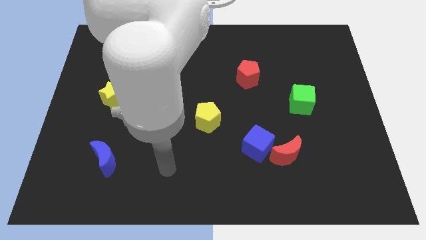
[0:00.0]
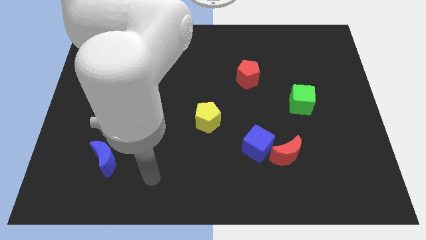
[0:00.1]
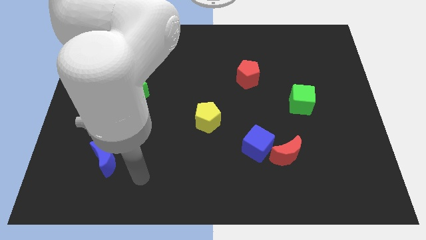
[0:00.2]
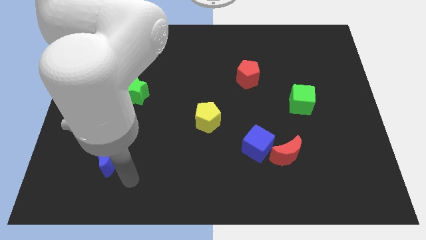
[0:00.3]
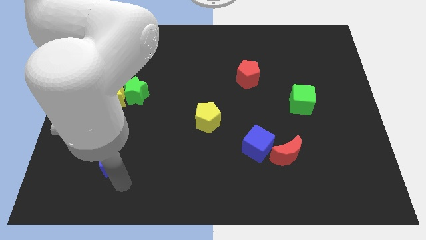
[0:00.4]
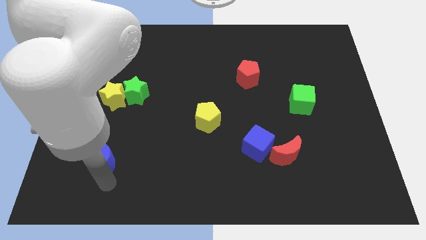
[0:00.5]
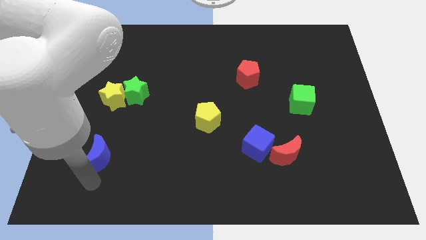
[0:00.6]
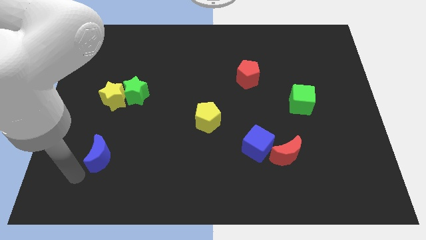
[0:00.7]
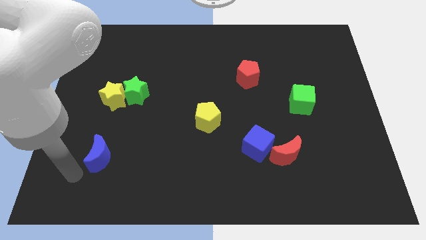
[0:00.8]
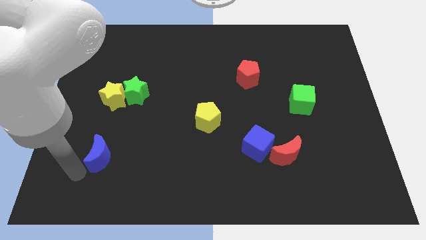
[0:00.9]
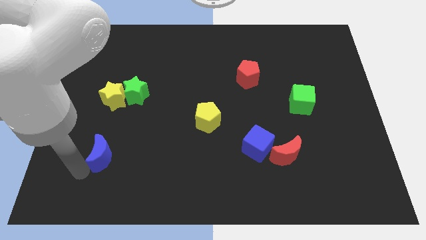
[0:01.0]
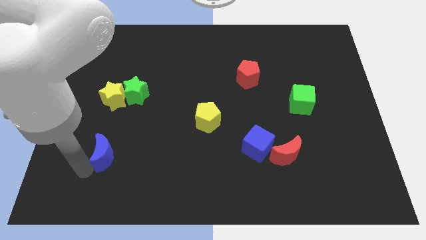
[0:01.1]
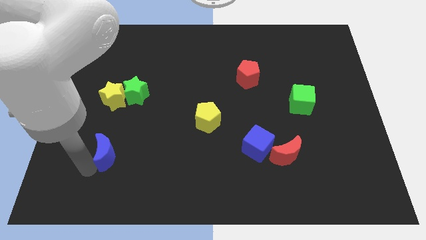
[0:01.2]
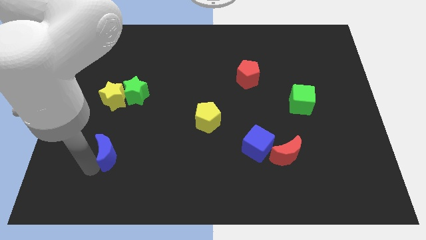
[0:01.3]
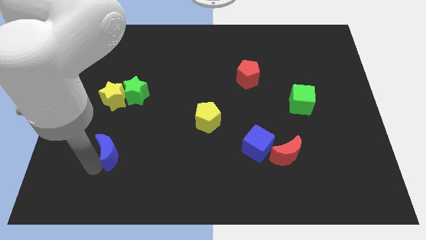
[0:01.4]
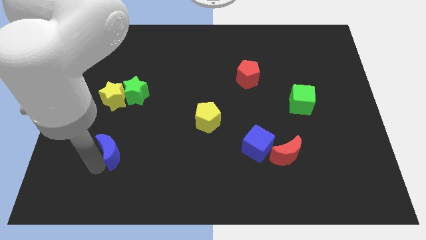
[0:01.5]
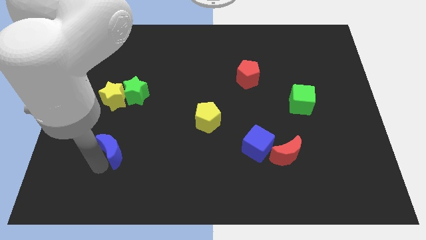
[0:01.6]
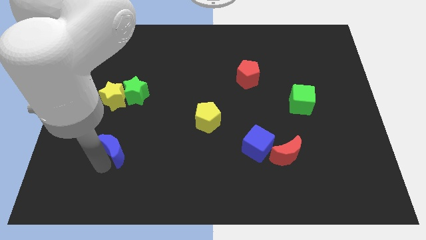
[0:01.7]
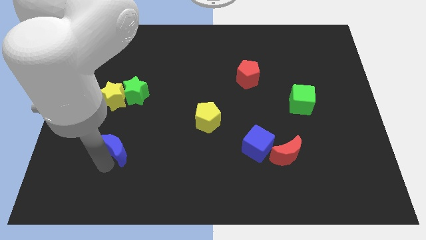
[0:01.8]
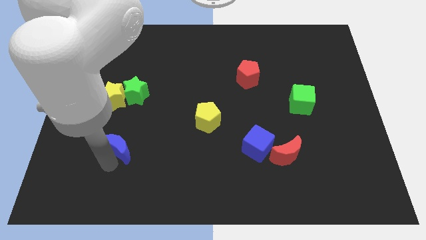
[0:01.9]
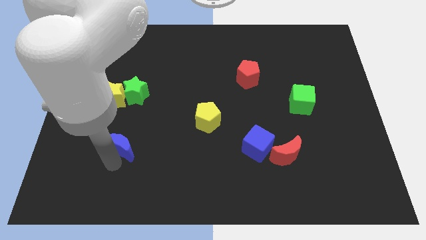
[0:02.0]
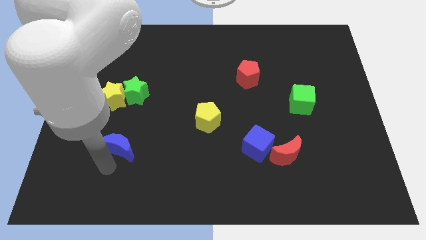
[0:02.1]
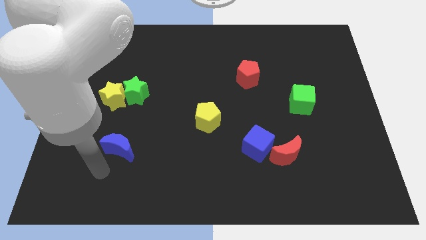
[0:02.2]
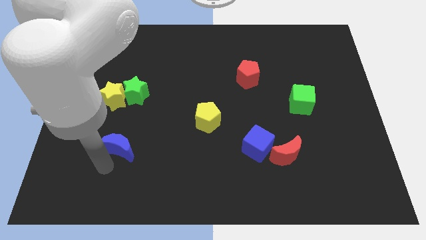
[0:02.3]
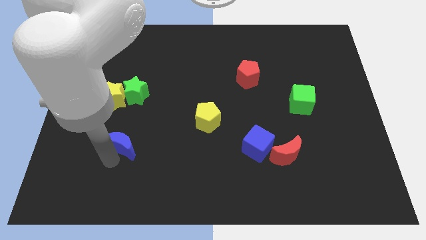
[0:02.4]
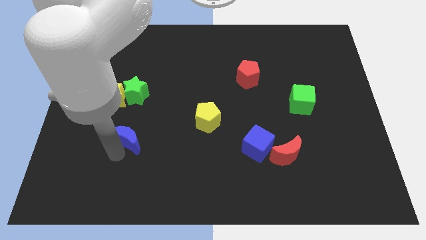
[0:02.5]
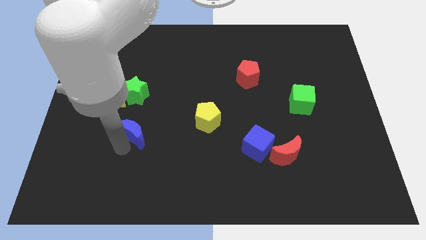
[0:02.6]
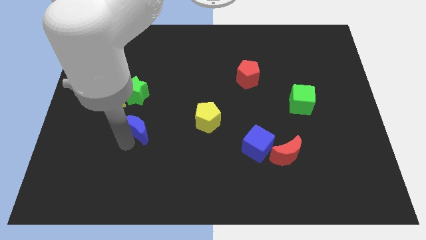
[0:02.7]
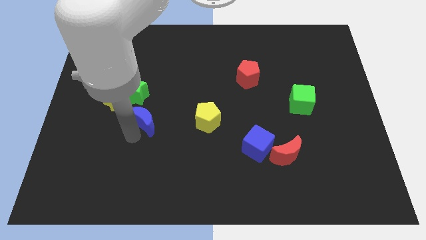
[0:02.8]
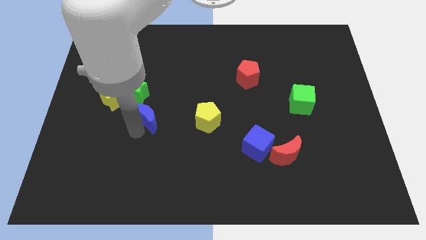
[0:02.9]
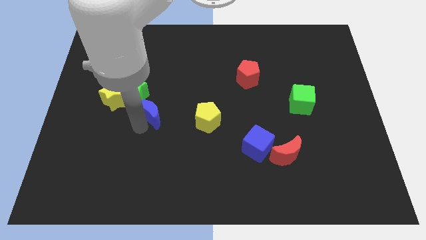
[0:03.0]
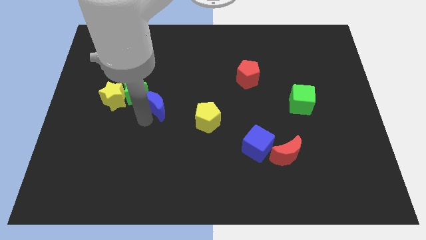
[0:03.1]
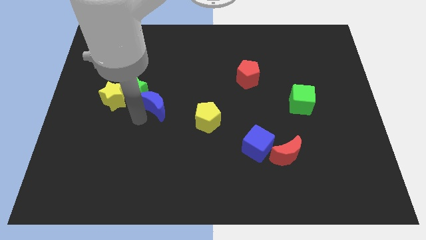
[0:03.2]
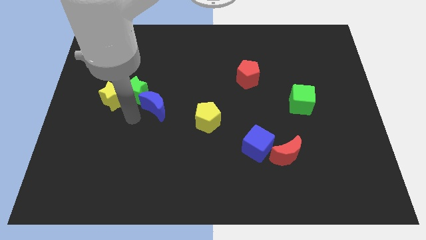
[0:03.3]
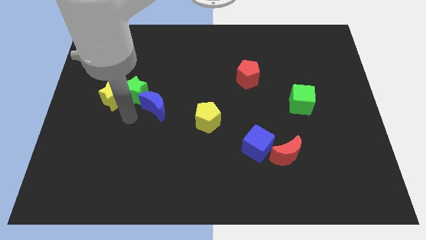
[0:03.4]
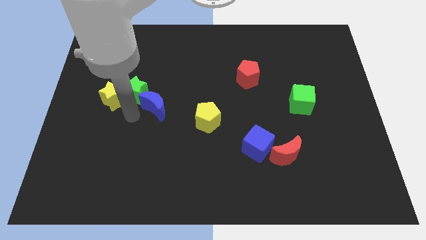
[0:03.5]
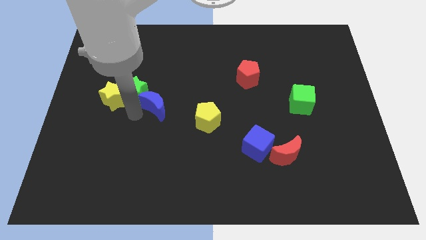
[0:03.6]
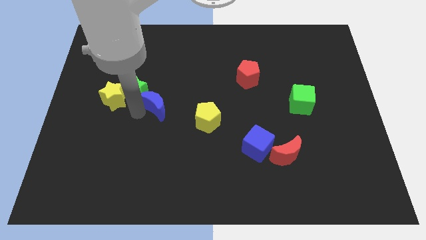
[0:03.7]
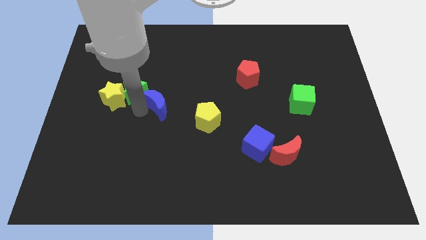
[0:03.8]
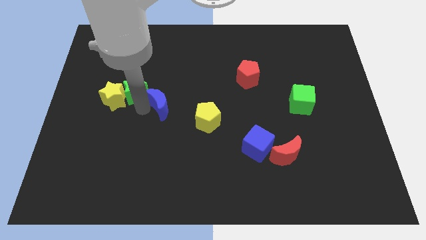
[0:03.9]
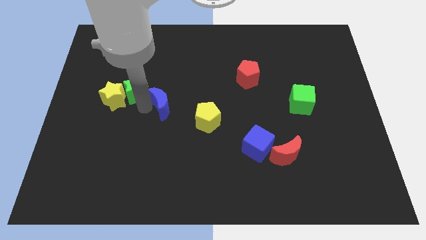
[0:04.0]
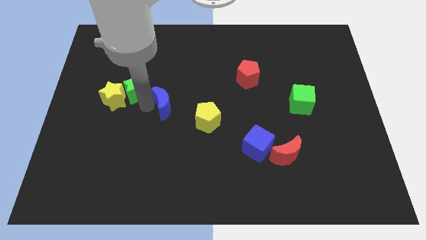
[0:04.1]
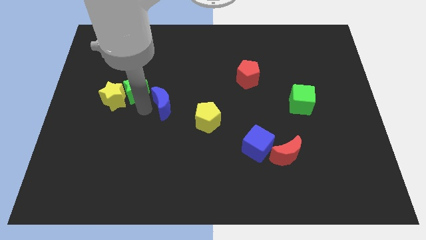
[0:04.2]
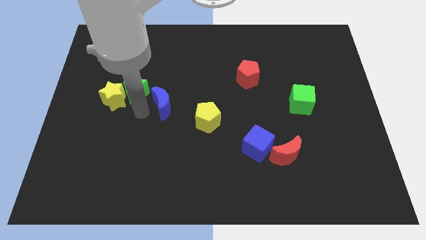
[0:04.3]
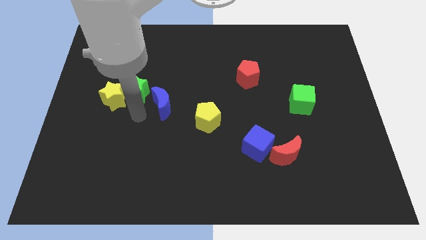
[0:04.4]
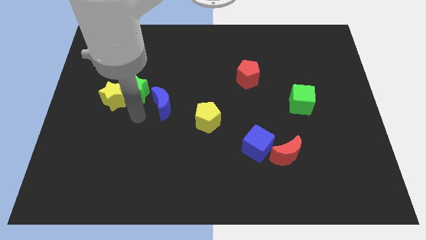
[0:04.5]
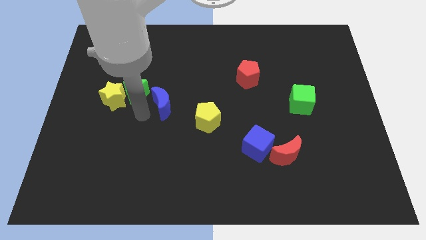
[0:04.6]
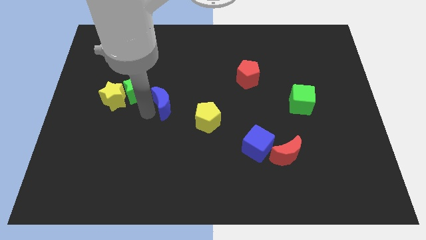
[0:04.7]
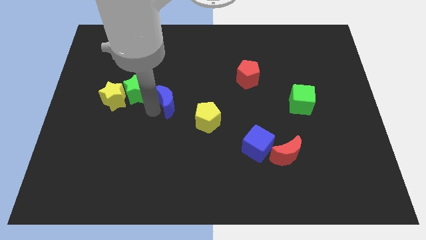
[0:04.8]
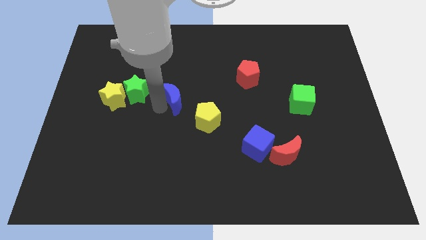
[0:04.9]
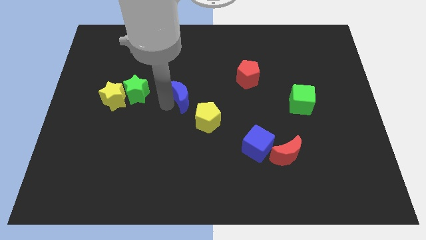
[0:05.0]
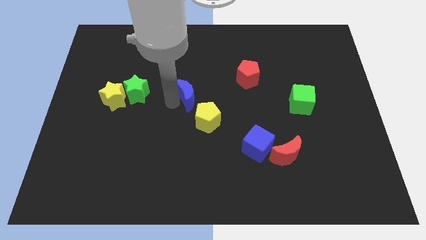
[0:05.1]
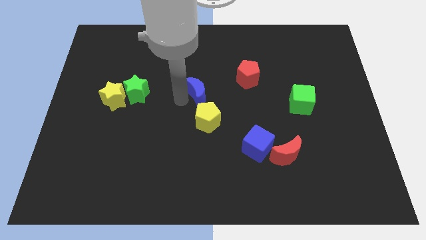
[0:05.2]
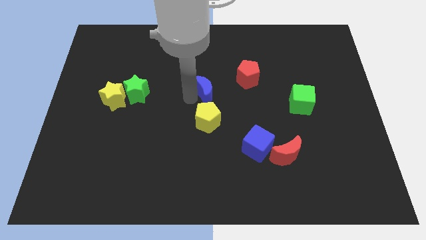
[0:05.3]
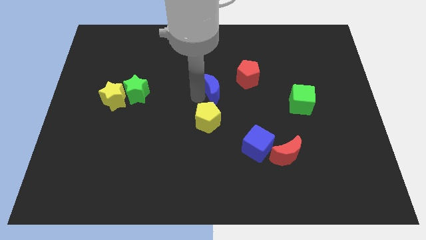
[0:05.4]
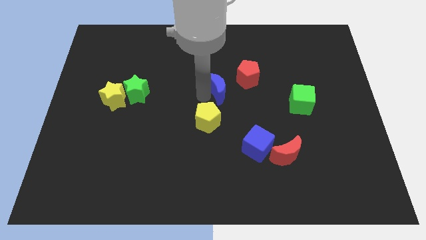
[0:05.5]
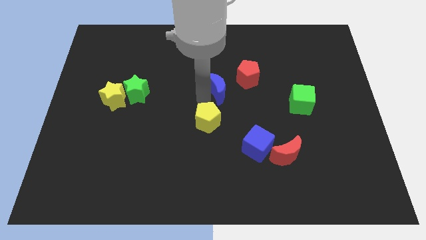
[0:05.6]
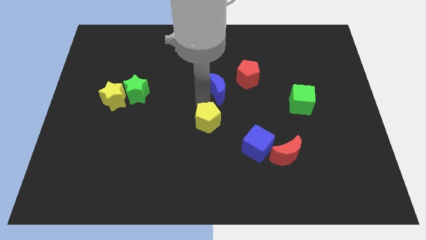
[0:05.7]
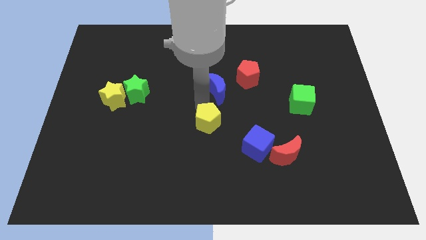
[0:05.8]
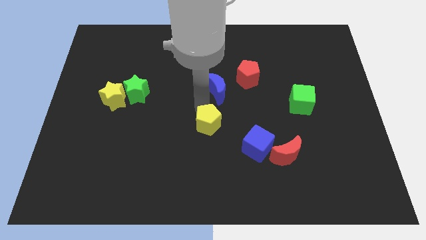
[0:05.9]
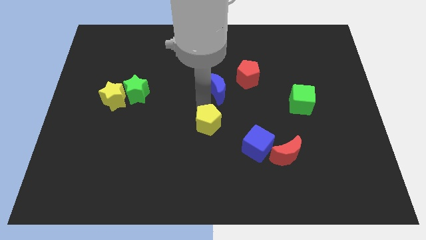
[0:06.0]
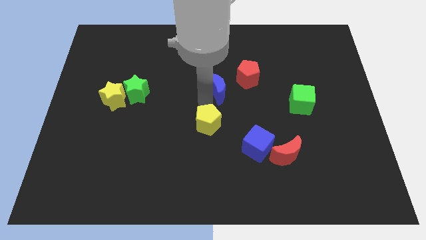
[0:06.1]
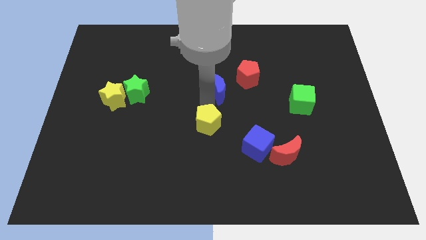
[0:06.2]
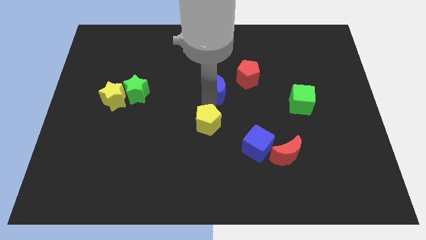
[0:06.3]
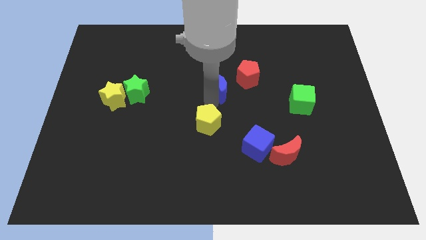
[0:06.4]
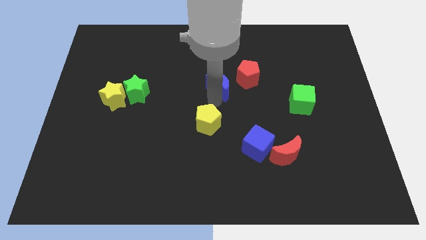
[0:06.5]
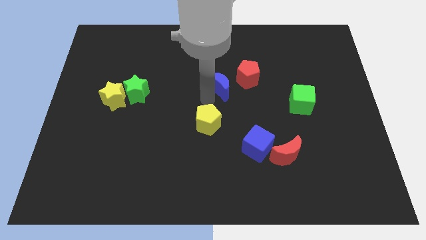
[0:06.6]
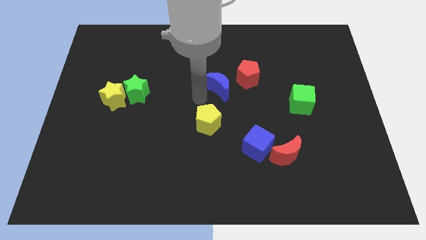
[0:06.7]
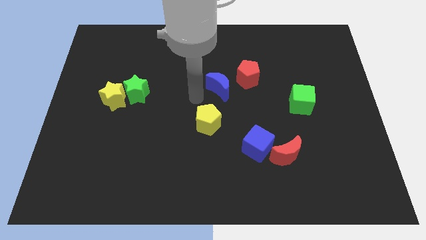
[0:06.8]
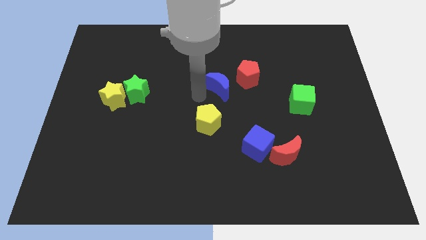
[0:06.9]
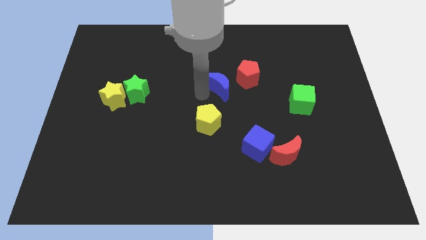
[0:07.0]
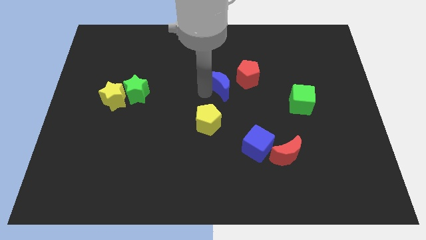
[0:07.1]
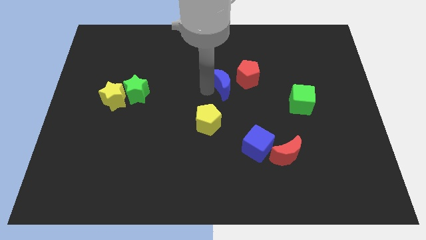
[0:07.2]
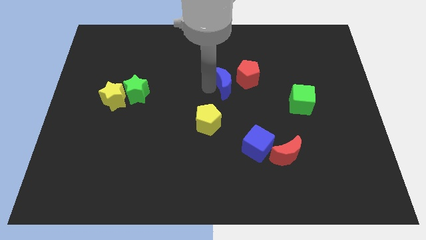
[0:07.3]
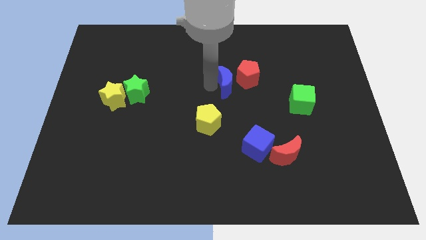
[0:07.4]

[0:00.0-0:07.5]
slide the blue moon close to the red pentagon
